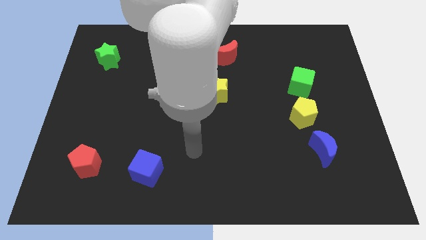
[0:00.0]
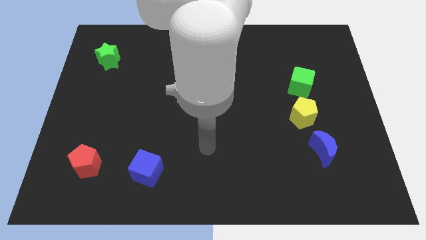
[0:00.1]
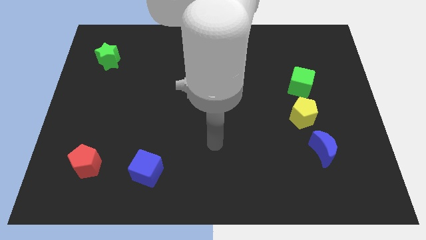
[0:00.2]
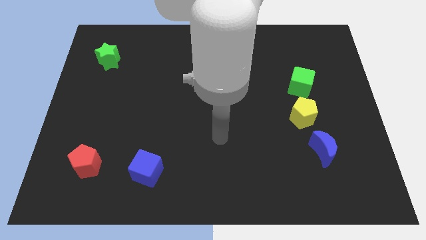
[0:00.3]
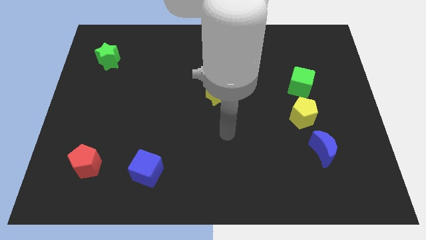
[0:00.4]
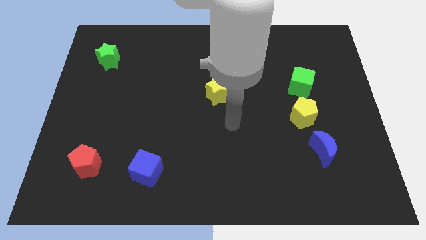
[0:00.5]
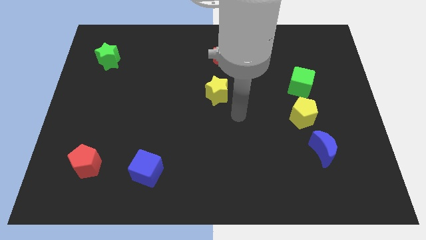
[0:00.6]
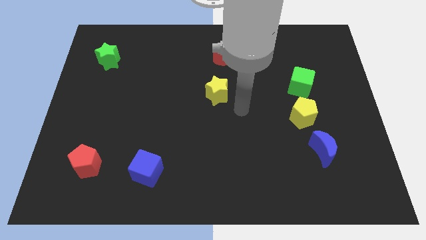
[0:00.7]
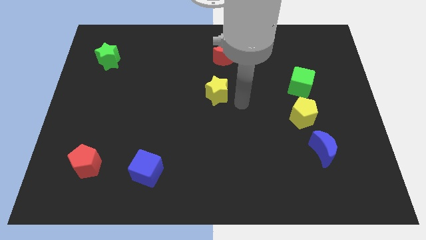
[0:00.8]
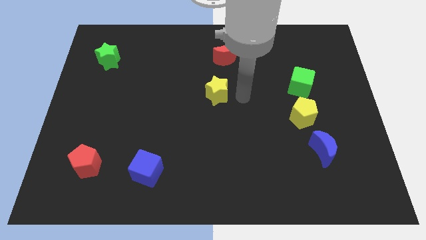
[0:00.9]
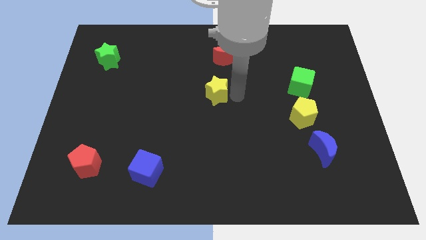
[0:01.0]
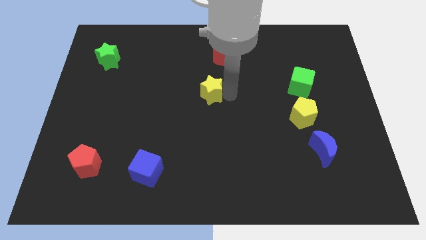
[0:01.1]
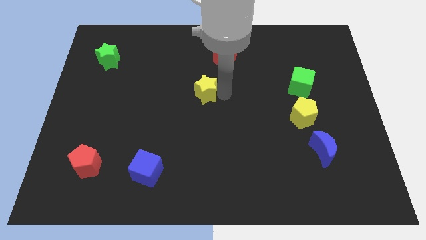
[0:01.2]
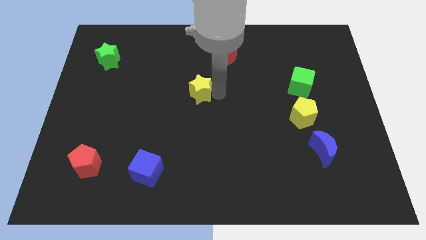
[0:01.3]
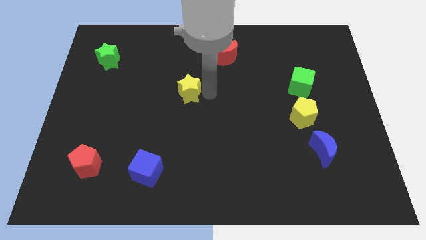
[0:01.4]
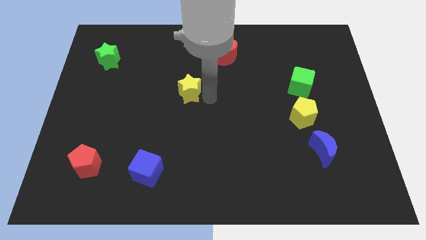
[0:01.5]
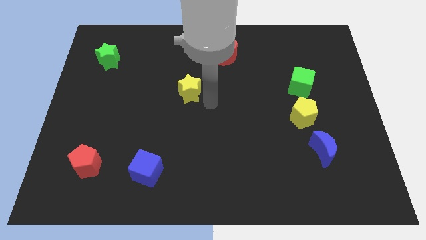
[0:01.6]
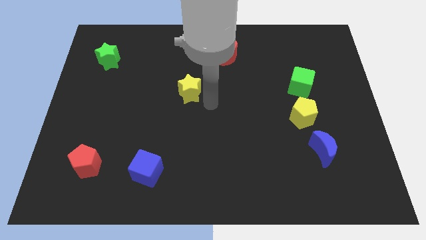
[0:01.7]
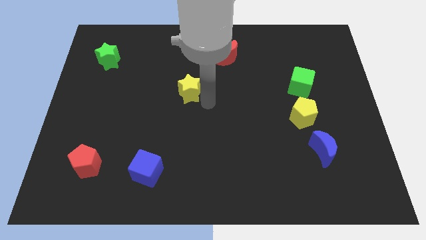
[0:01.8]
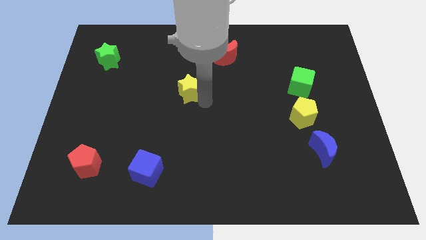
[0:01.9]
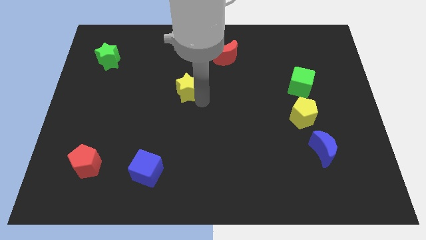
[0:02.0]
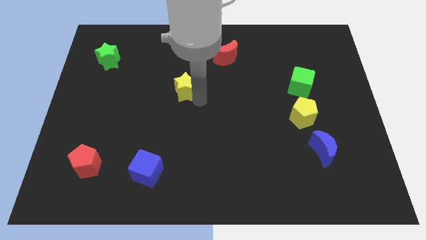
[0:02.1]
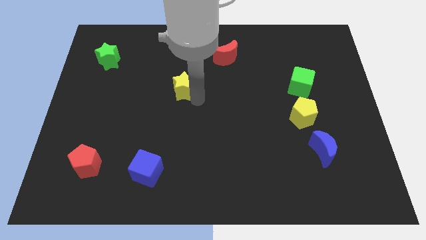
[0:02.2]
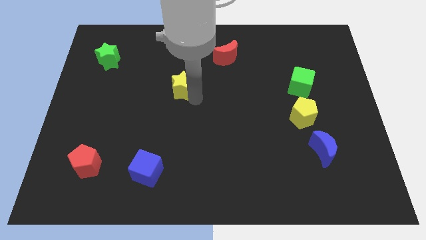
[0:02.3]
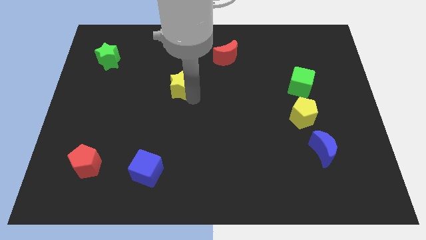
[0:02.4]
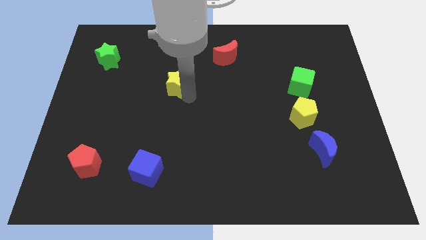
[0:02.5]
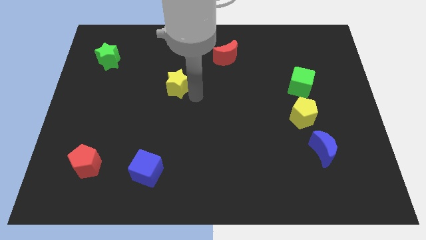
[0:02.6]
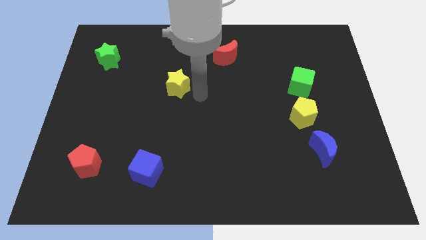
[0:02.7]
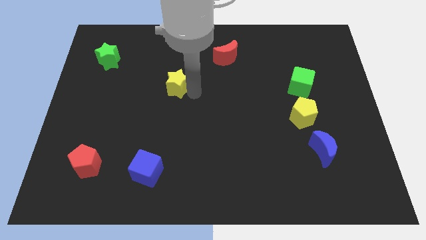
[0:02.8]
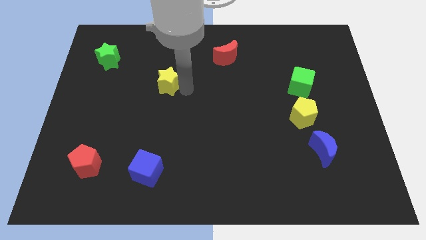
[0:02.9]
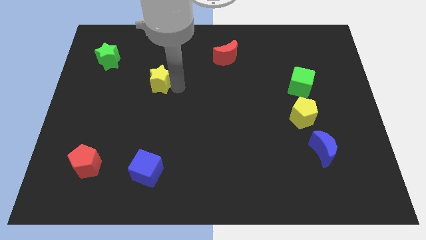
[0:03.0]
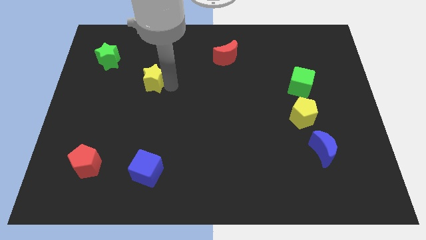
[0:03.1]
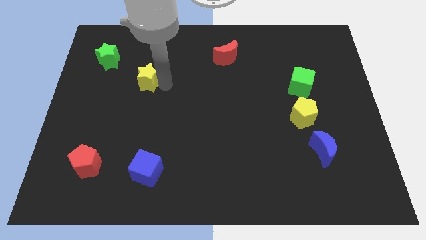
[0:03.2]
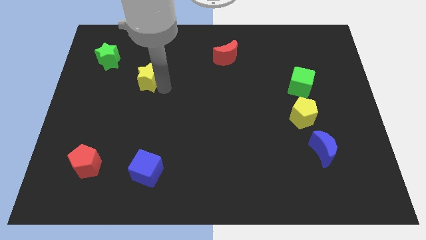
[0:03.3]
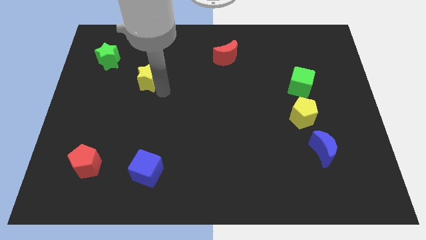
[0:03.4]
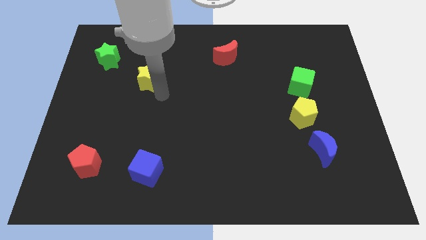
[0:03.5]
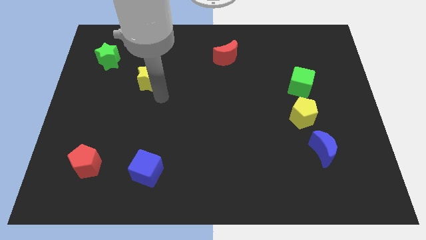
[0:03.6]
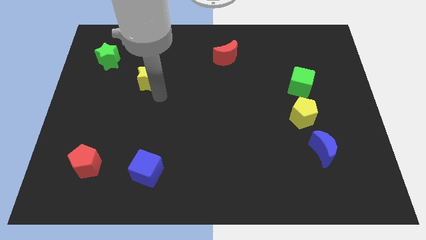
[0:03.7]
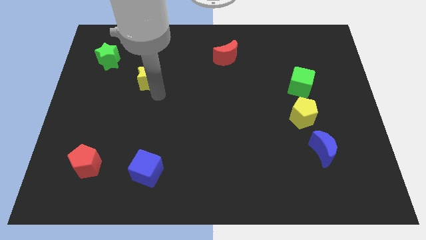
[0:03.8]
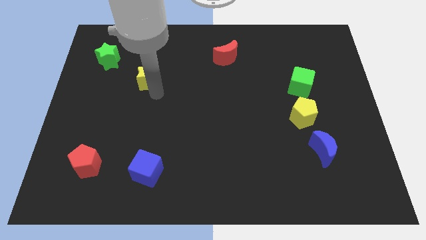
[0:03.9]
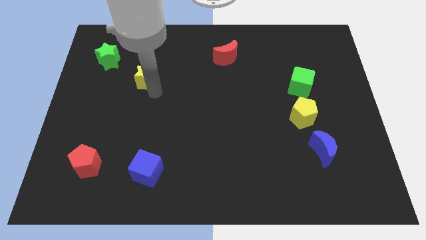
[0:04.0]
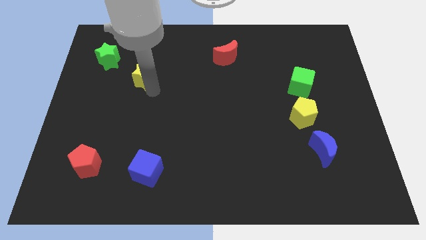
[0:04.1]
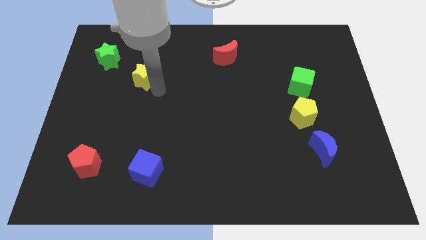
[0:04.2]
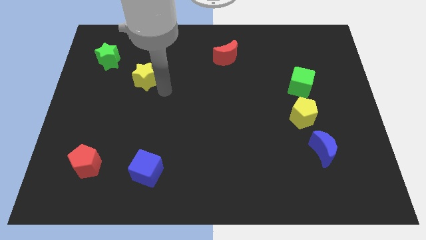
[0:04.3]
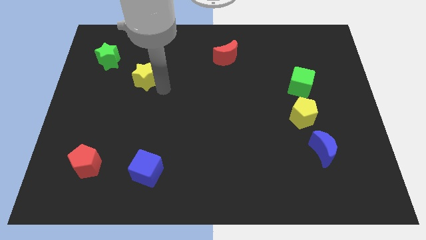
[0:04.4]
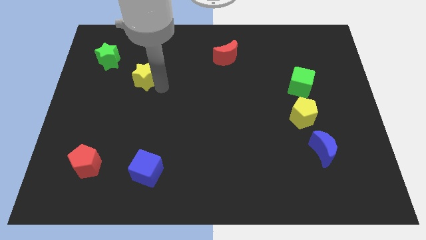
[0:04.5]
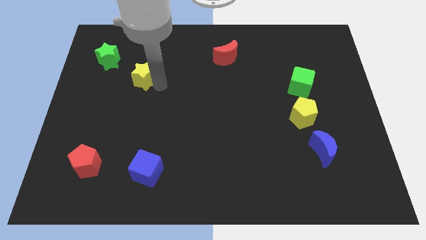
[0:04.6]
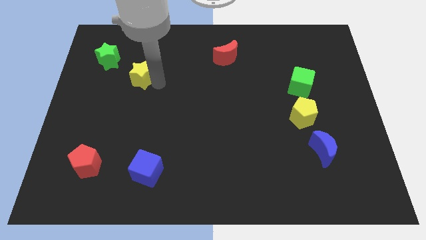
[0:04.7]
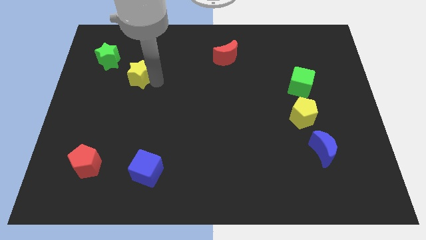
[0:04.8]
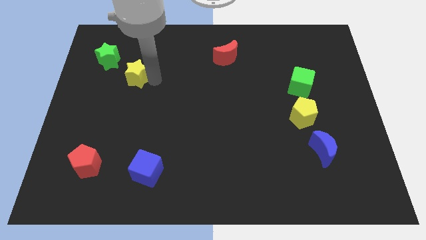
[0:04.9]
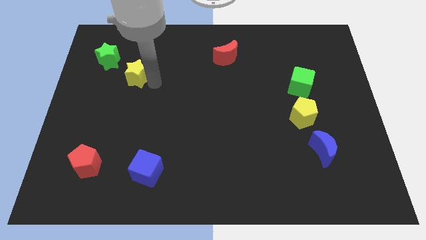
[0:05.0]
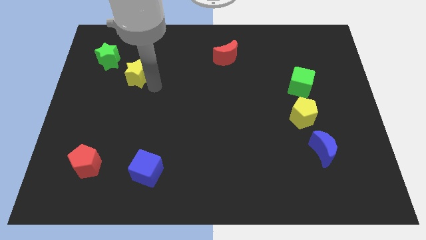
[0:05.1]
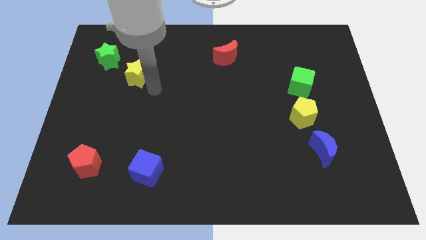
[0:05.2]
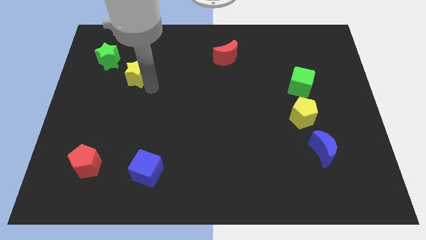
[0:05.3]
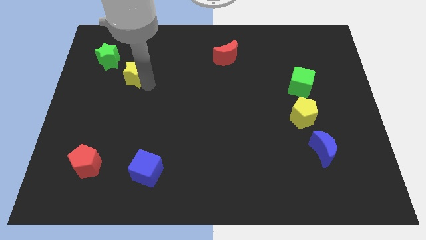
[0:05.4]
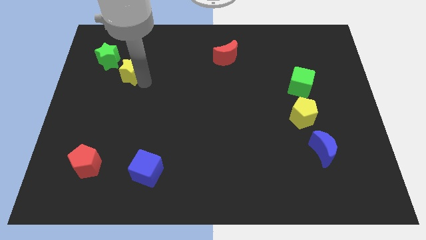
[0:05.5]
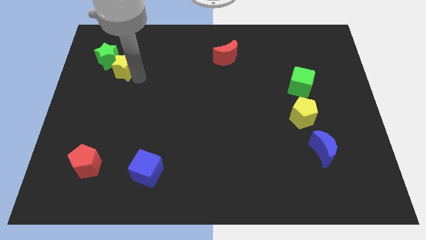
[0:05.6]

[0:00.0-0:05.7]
move the yellow star to the green star

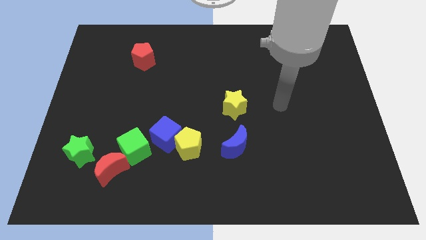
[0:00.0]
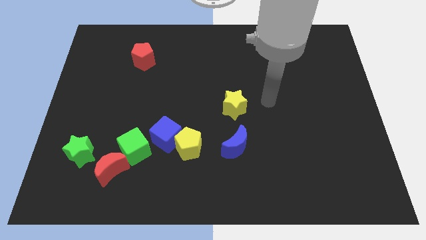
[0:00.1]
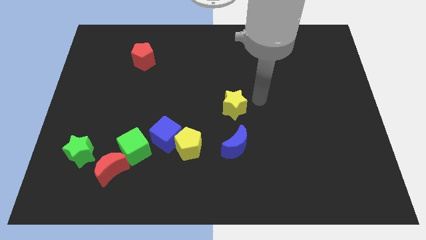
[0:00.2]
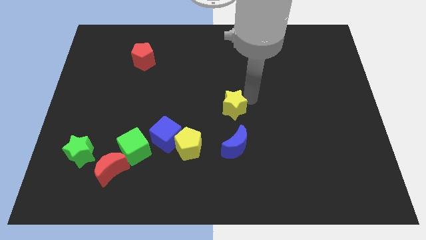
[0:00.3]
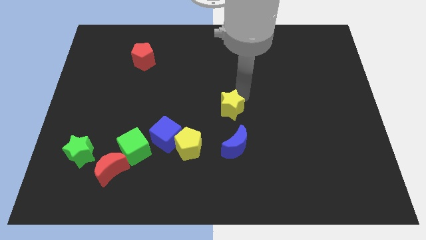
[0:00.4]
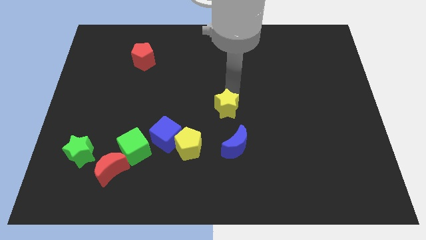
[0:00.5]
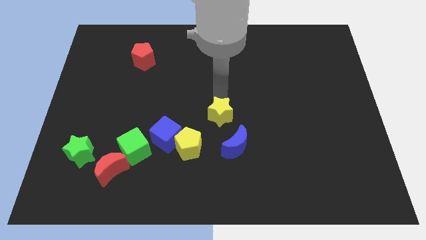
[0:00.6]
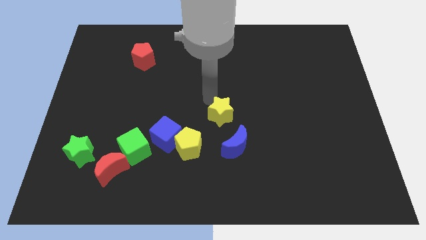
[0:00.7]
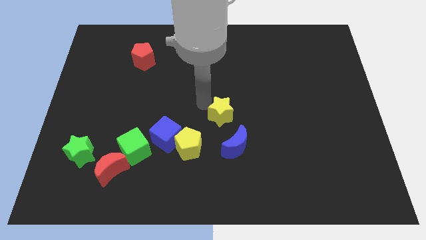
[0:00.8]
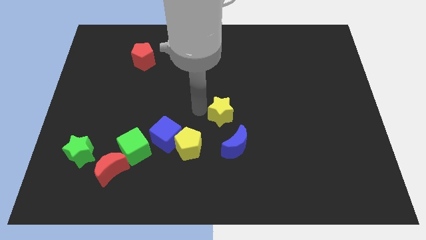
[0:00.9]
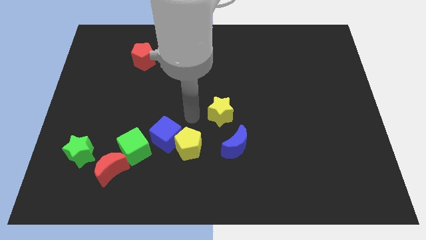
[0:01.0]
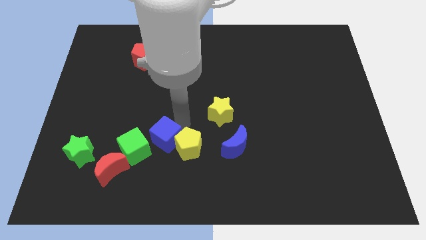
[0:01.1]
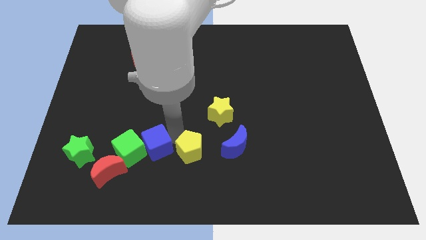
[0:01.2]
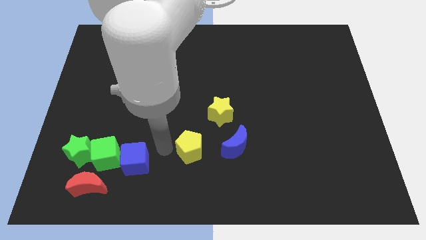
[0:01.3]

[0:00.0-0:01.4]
put the green cube close to the green star

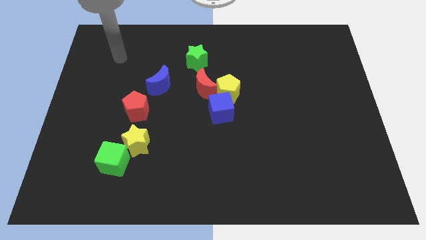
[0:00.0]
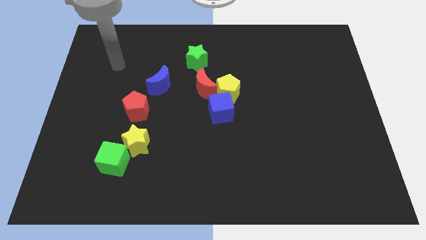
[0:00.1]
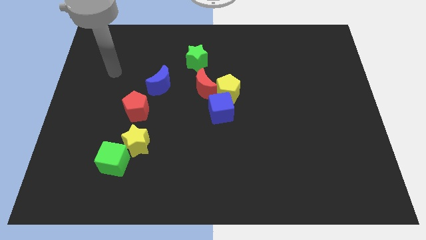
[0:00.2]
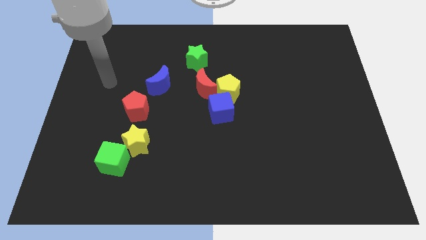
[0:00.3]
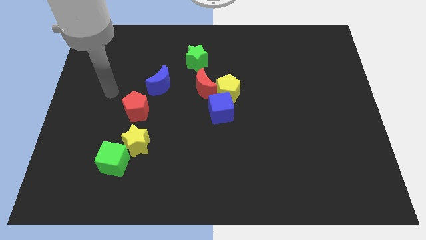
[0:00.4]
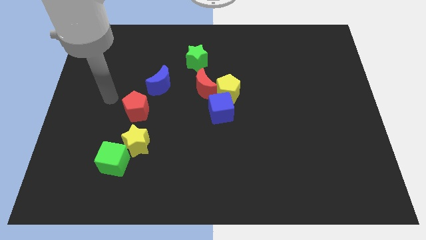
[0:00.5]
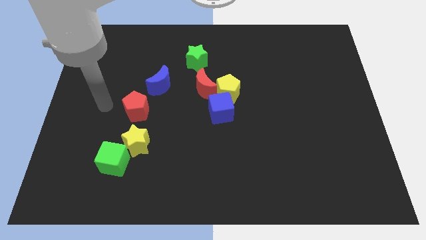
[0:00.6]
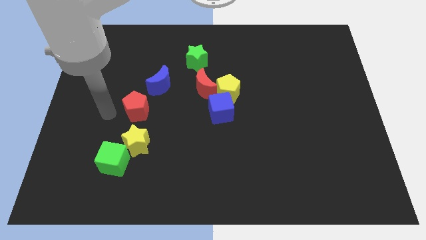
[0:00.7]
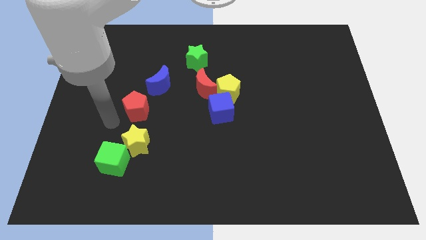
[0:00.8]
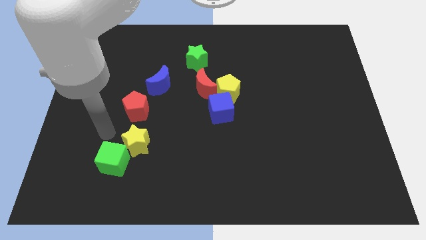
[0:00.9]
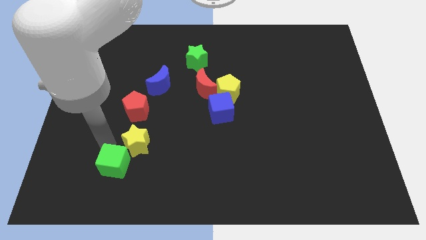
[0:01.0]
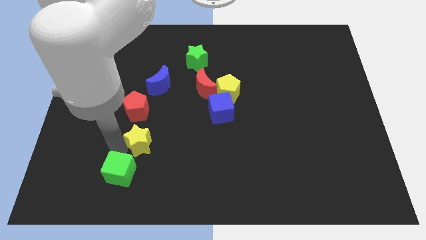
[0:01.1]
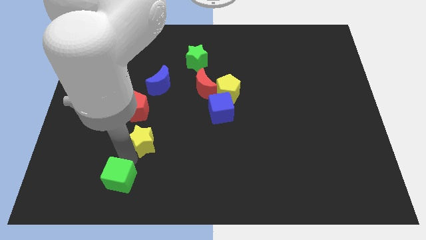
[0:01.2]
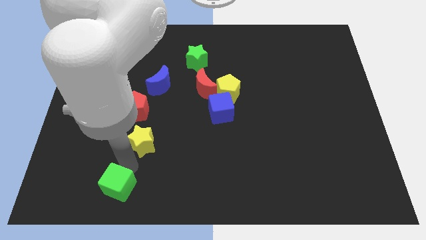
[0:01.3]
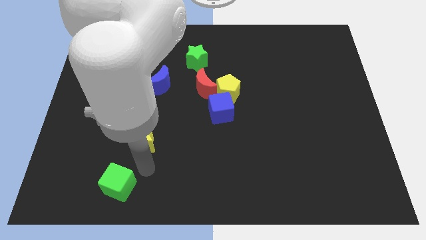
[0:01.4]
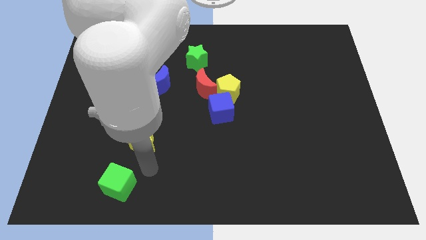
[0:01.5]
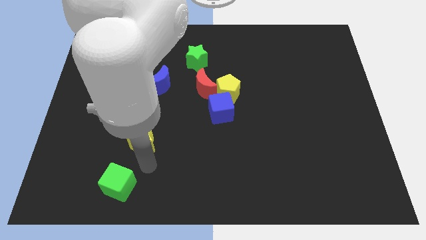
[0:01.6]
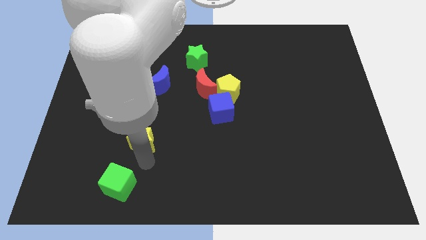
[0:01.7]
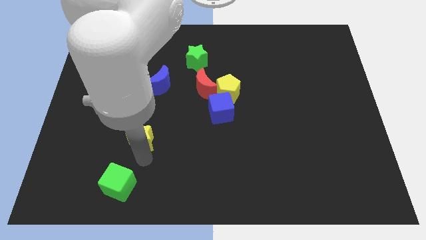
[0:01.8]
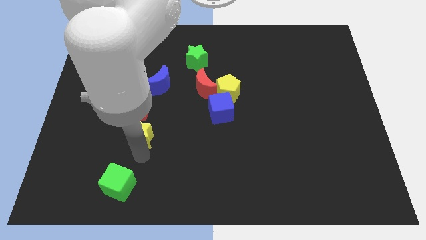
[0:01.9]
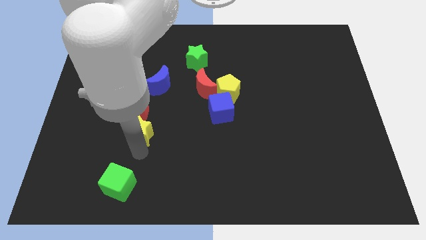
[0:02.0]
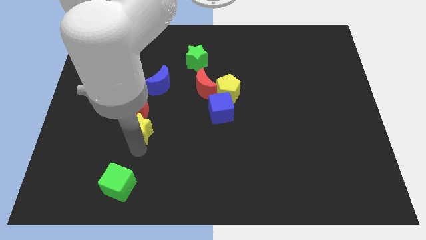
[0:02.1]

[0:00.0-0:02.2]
move the yellow star close to the red pentagon
